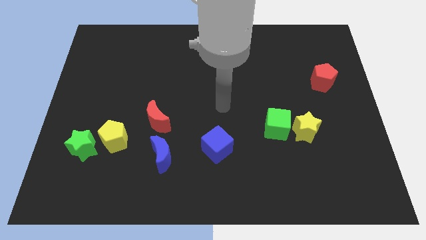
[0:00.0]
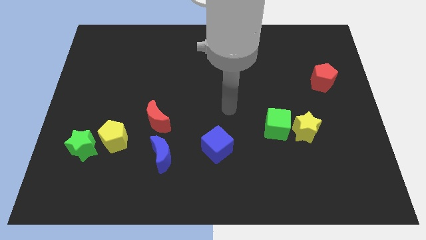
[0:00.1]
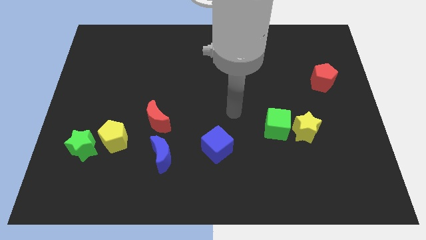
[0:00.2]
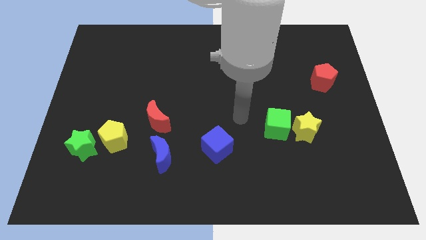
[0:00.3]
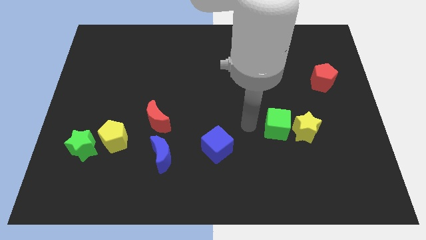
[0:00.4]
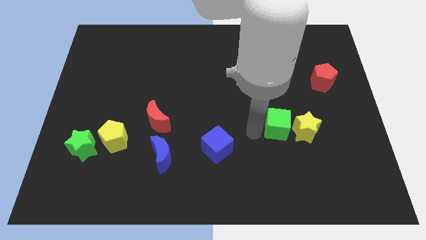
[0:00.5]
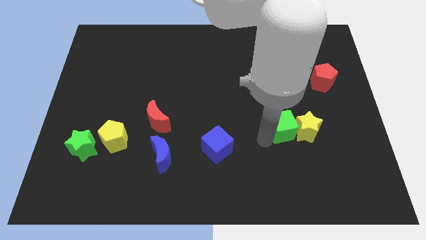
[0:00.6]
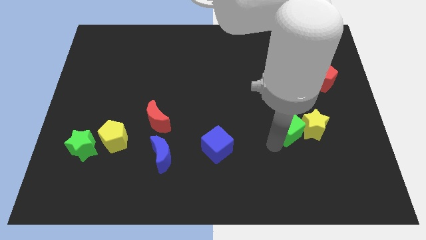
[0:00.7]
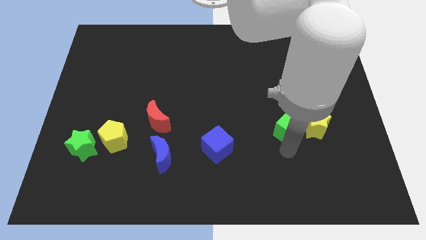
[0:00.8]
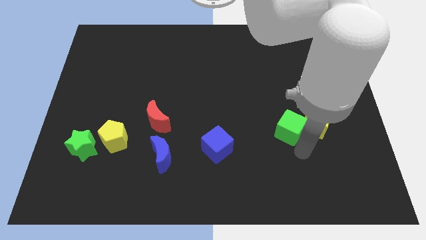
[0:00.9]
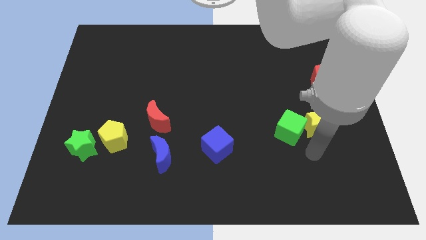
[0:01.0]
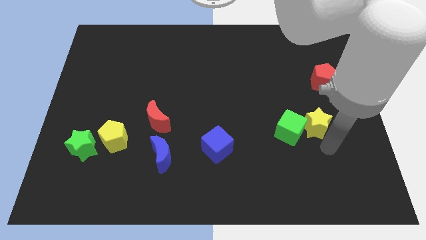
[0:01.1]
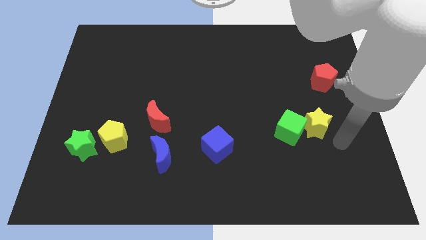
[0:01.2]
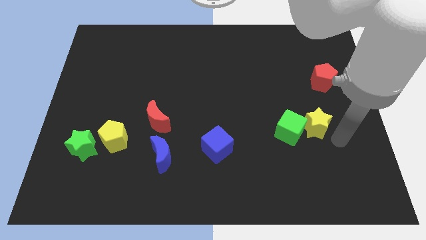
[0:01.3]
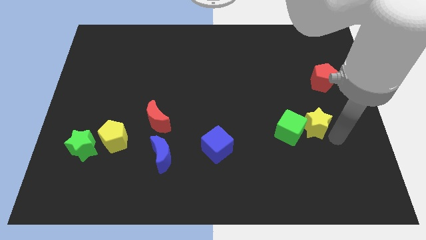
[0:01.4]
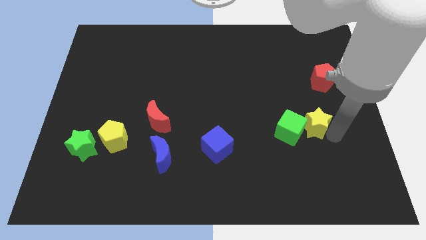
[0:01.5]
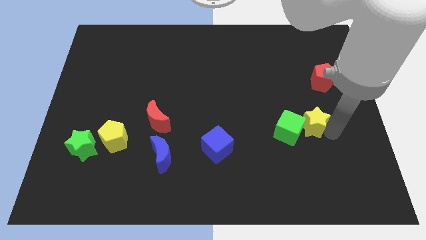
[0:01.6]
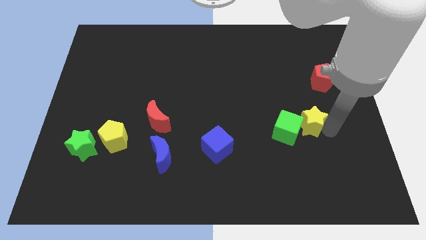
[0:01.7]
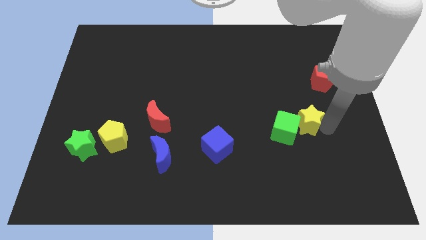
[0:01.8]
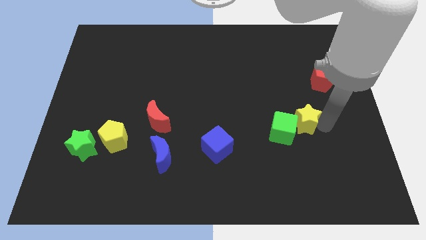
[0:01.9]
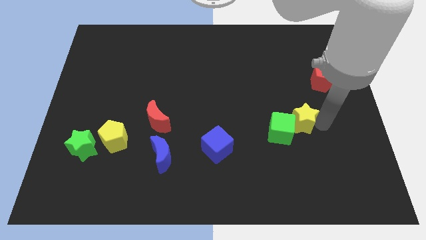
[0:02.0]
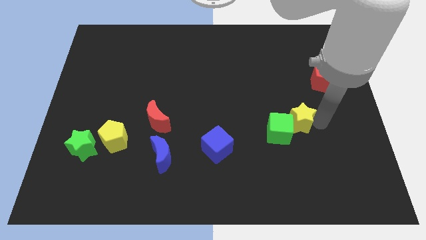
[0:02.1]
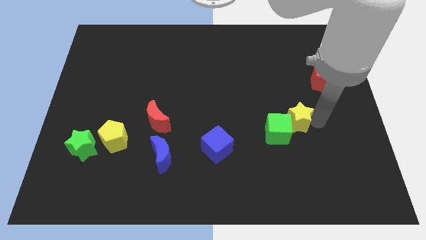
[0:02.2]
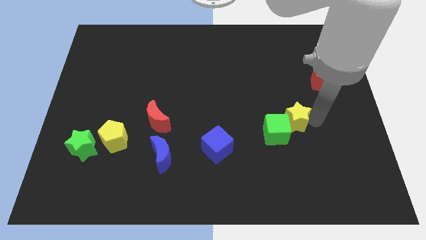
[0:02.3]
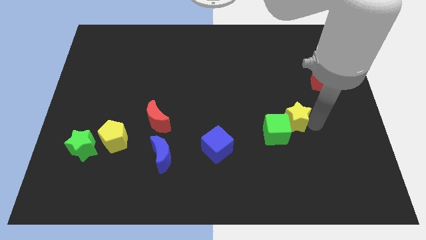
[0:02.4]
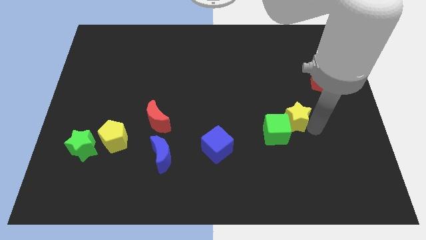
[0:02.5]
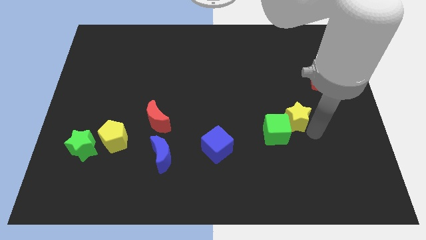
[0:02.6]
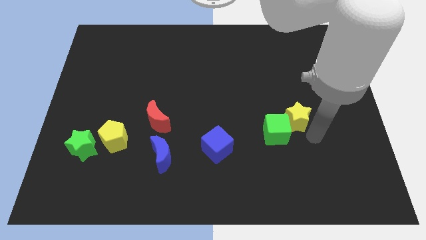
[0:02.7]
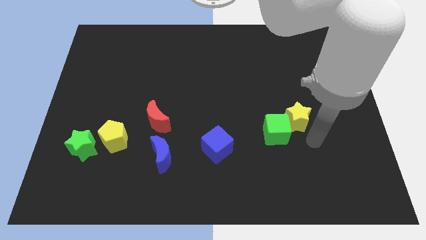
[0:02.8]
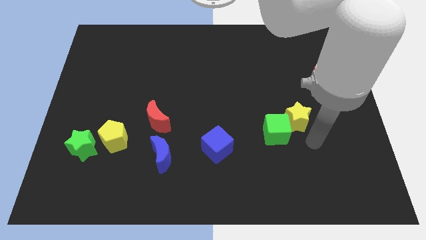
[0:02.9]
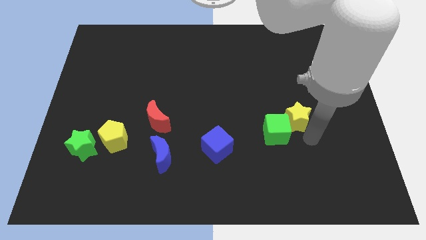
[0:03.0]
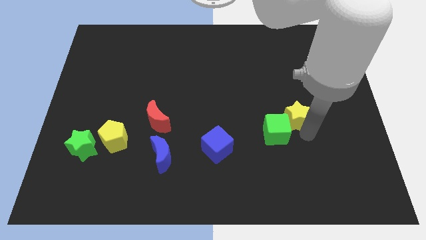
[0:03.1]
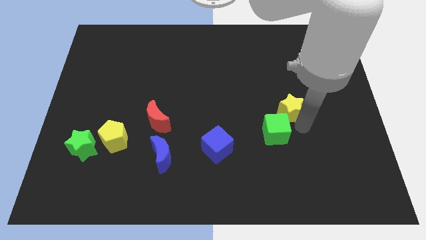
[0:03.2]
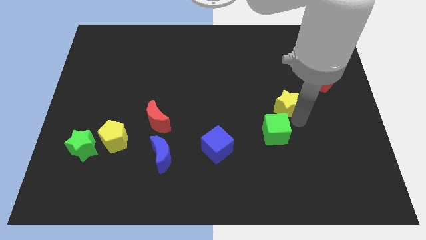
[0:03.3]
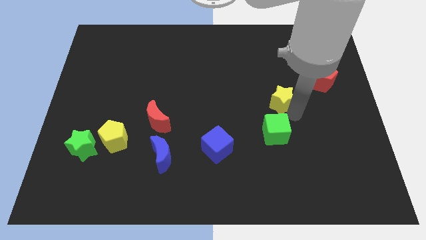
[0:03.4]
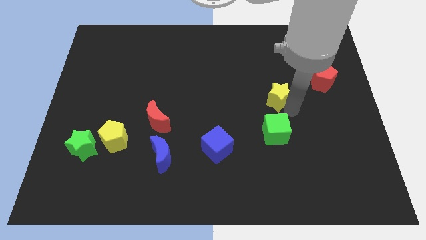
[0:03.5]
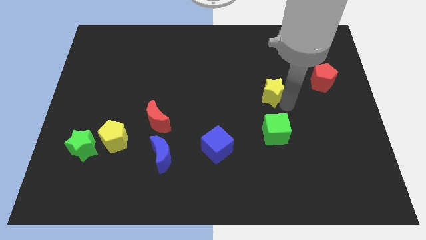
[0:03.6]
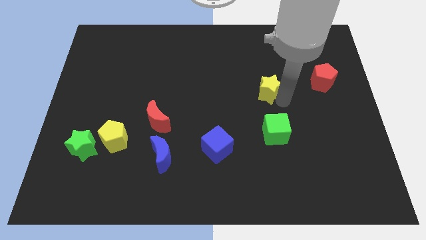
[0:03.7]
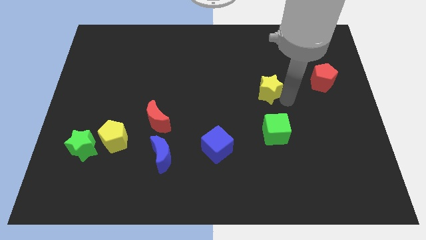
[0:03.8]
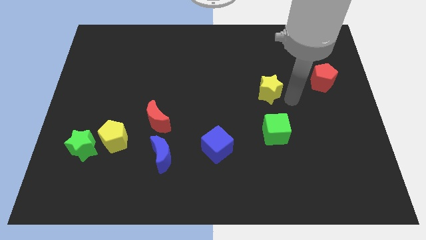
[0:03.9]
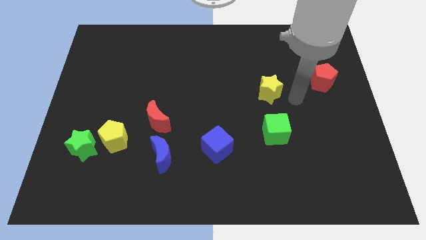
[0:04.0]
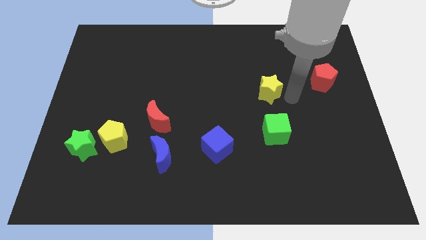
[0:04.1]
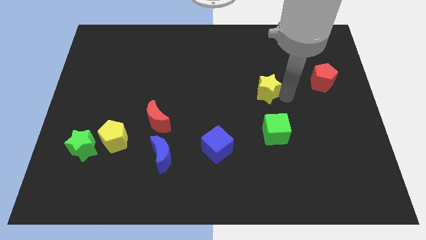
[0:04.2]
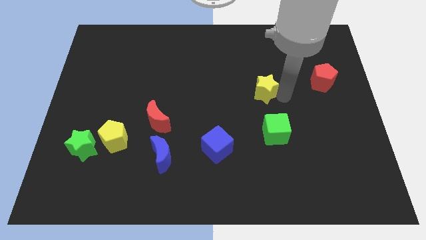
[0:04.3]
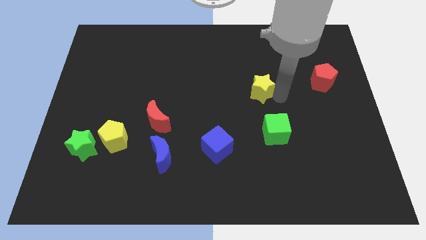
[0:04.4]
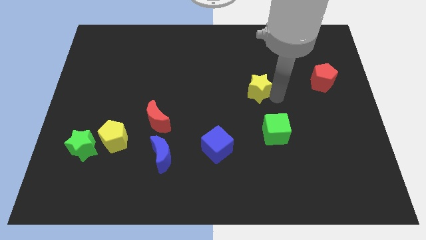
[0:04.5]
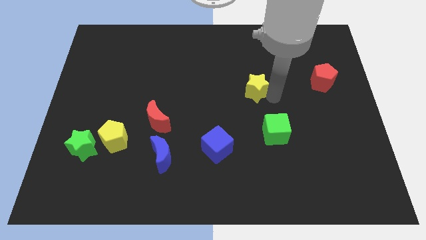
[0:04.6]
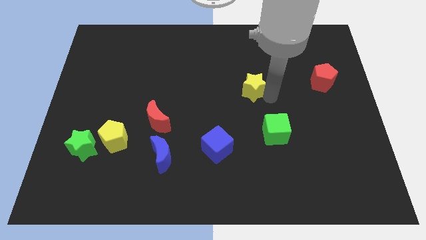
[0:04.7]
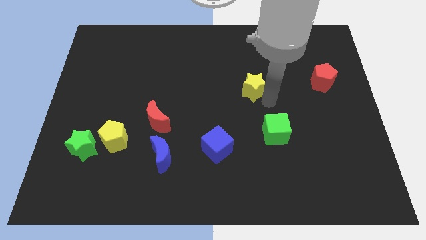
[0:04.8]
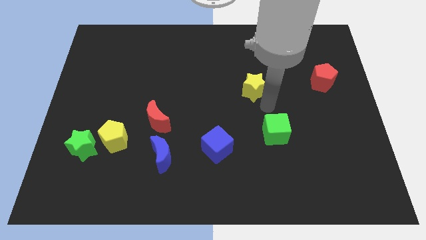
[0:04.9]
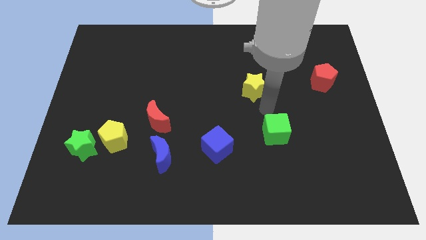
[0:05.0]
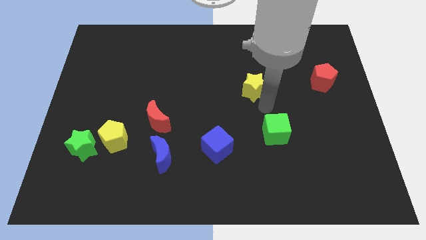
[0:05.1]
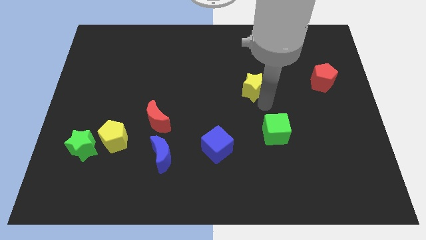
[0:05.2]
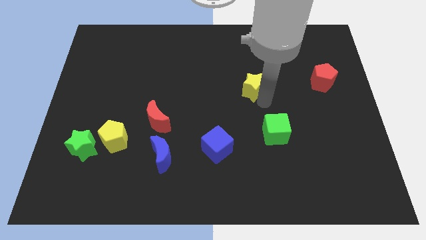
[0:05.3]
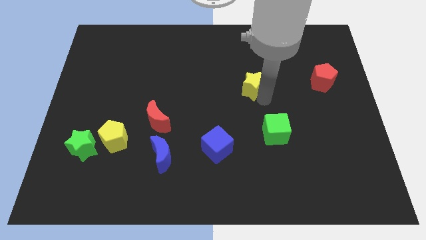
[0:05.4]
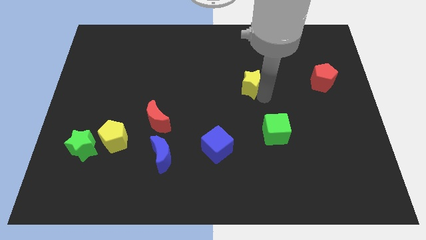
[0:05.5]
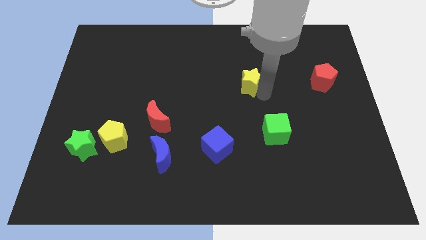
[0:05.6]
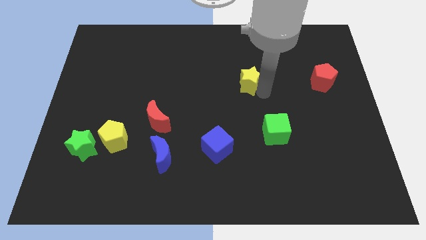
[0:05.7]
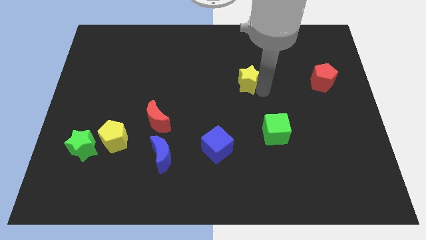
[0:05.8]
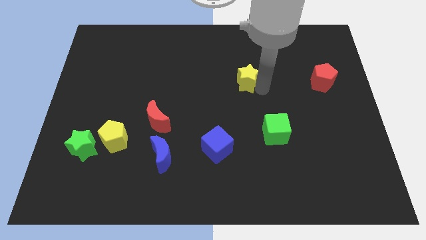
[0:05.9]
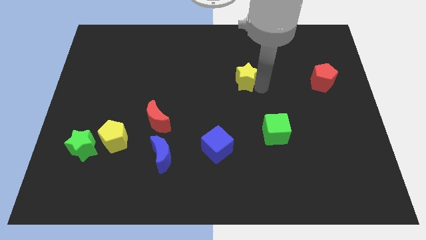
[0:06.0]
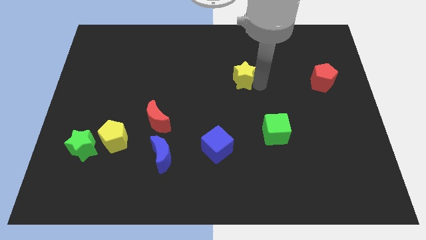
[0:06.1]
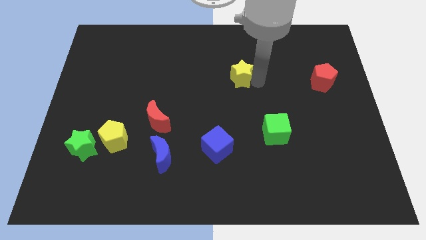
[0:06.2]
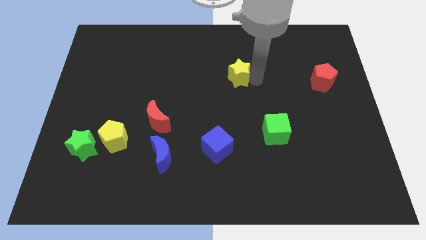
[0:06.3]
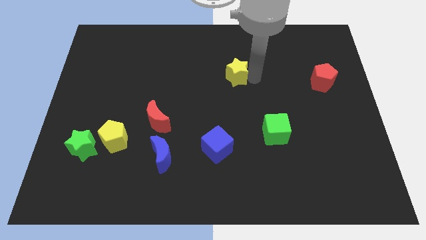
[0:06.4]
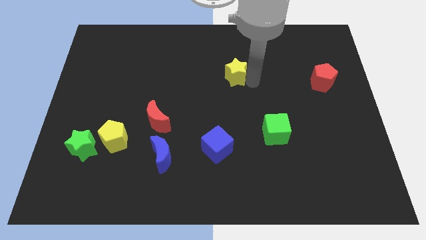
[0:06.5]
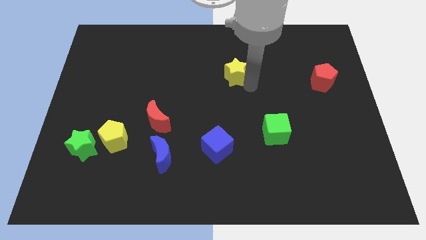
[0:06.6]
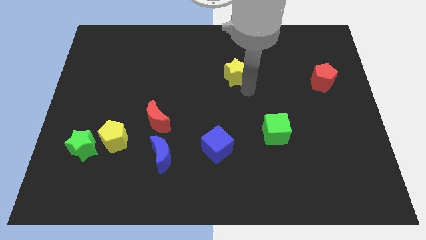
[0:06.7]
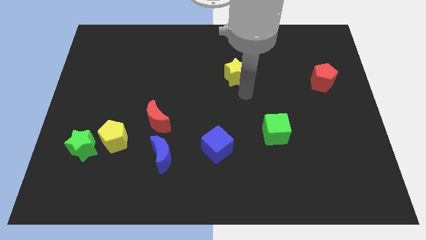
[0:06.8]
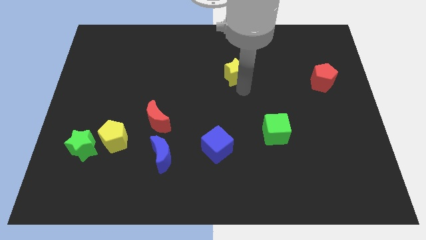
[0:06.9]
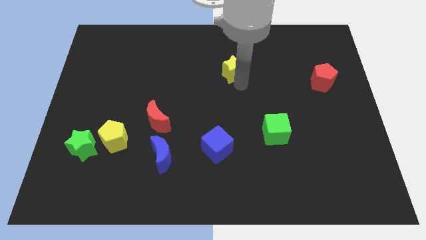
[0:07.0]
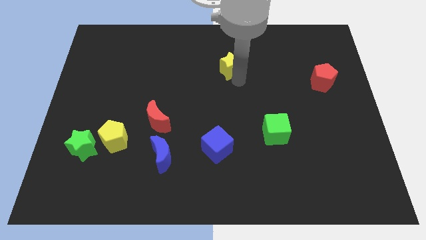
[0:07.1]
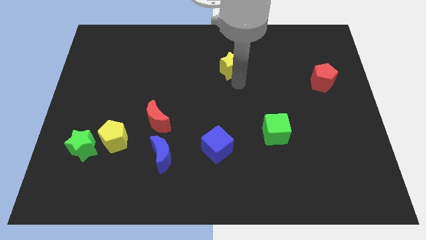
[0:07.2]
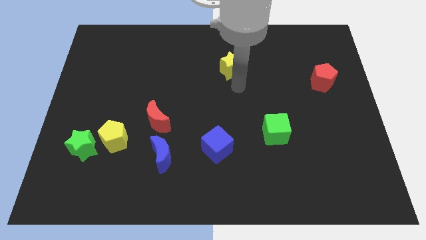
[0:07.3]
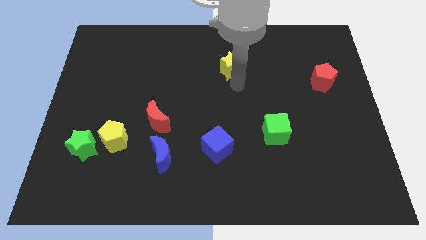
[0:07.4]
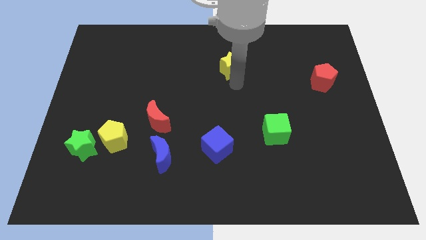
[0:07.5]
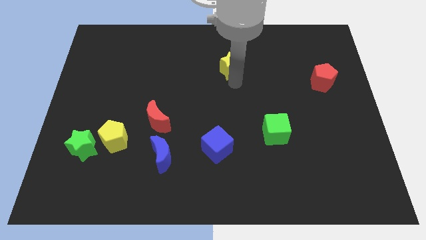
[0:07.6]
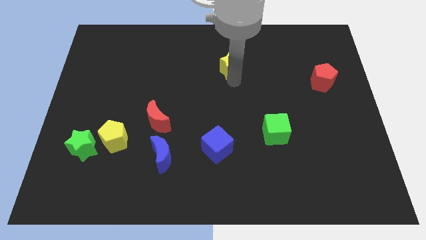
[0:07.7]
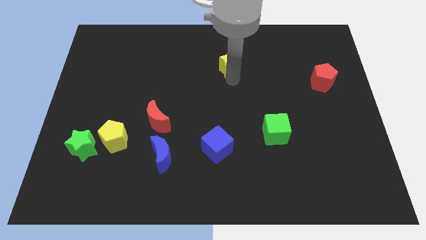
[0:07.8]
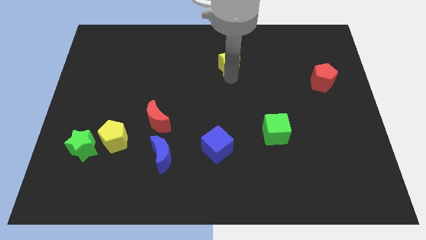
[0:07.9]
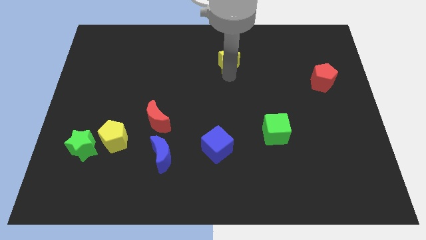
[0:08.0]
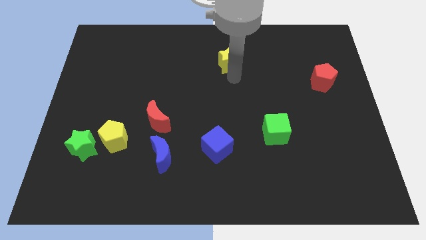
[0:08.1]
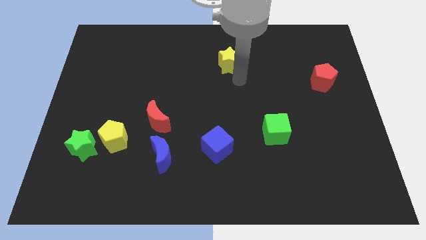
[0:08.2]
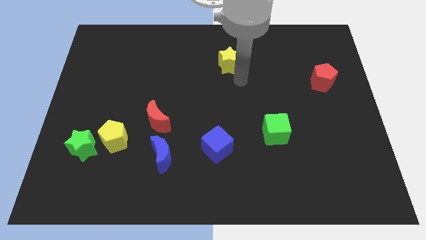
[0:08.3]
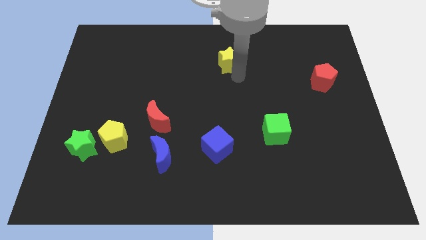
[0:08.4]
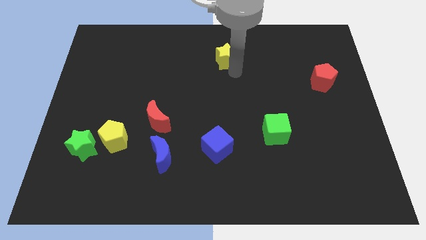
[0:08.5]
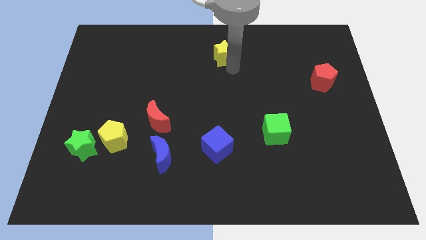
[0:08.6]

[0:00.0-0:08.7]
push the yellow star to the towards your base
